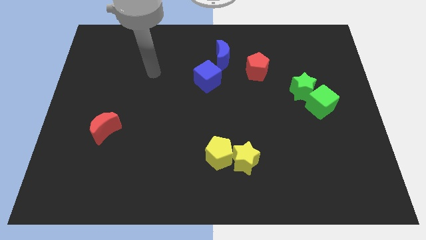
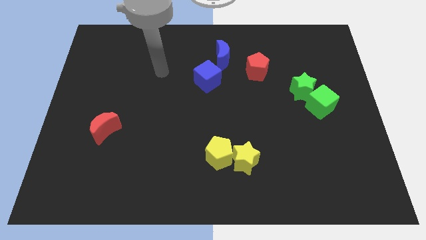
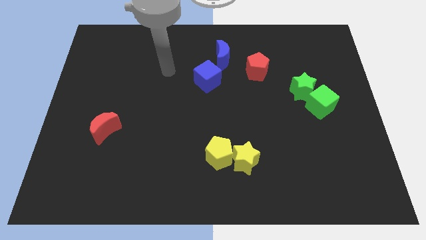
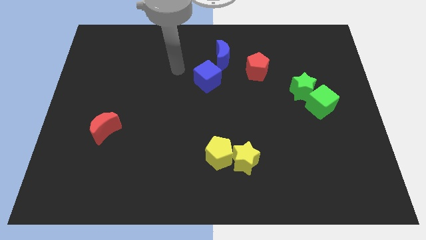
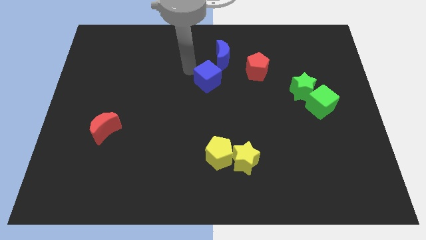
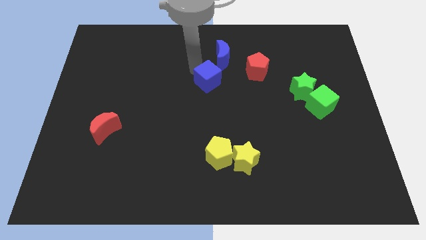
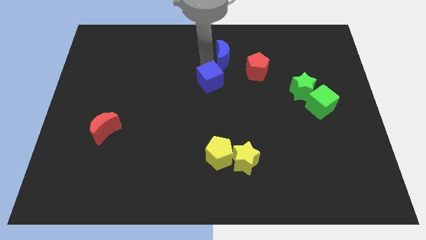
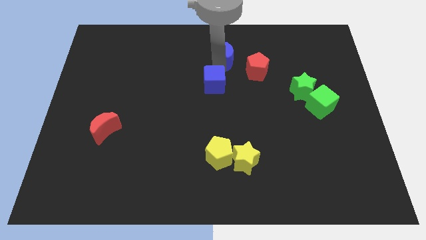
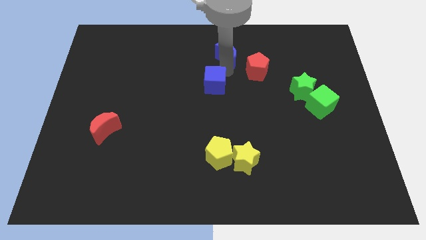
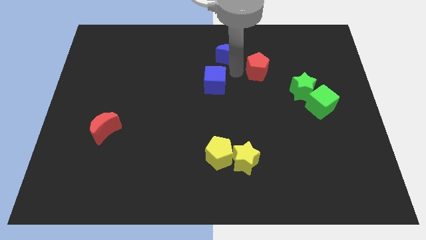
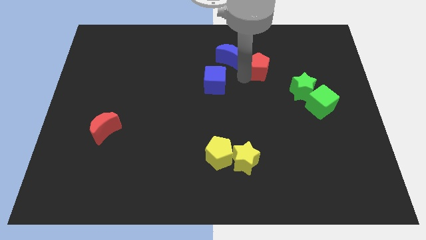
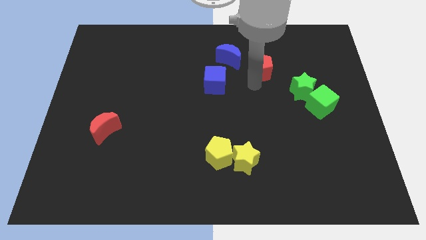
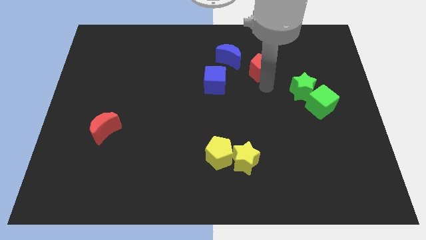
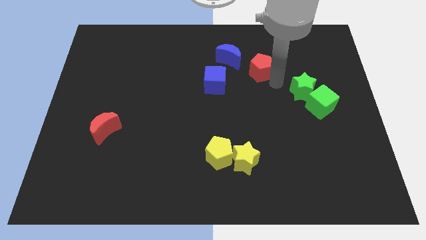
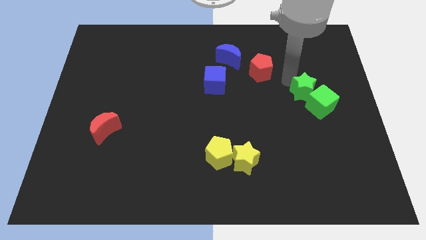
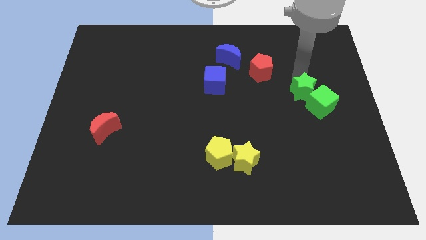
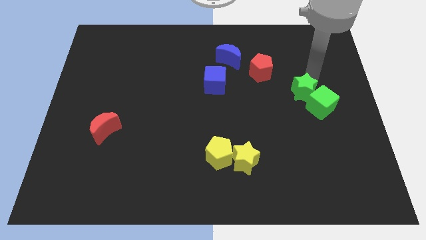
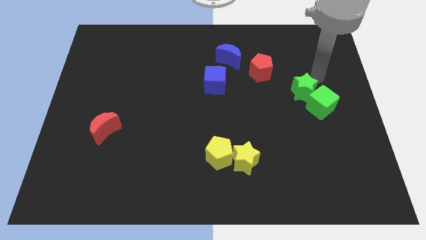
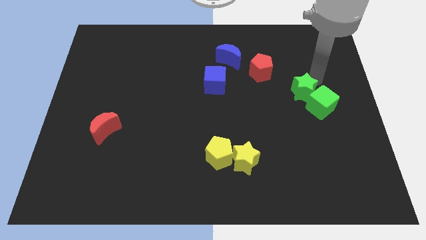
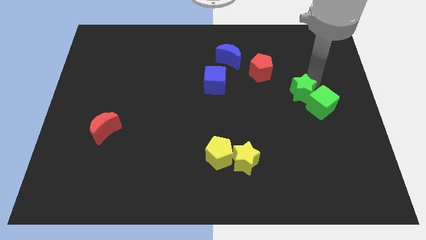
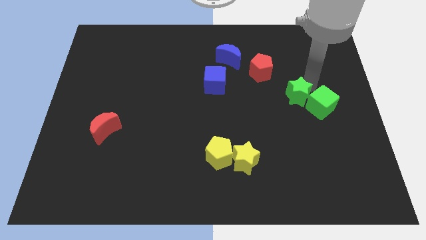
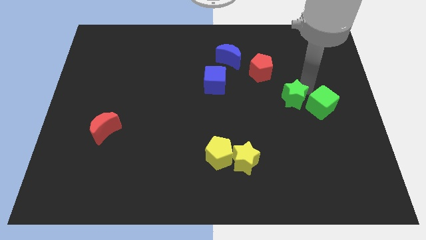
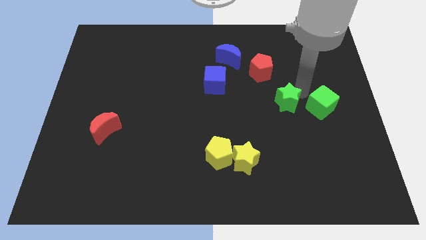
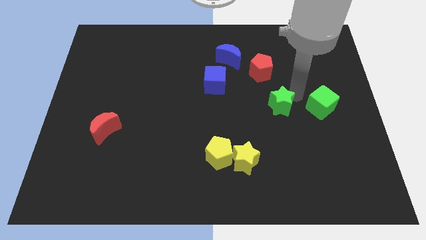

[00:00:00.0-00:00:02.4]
push the green star diagonally downwards and left a bit

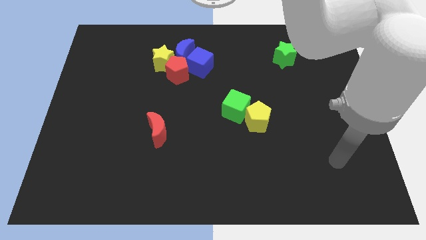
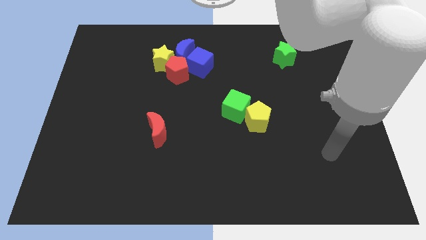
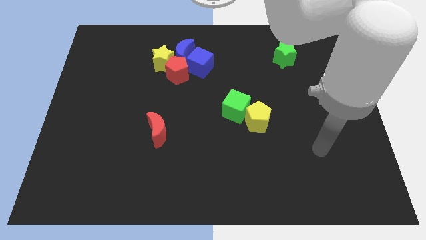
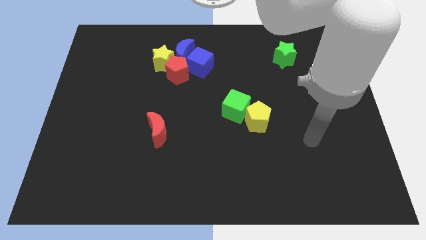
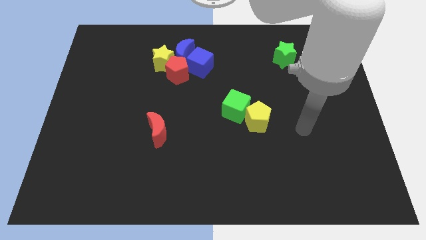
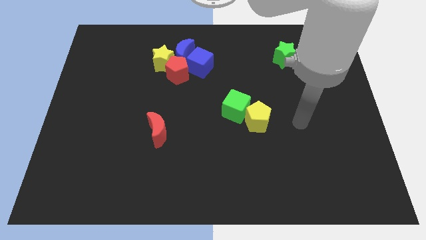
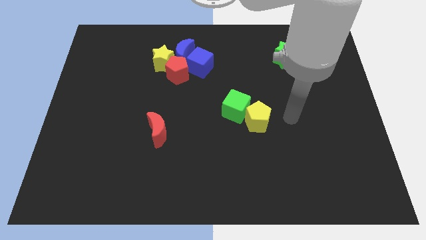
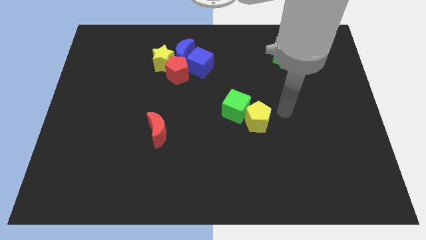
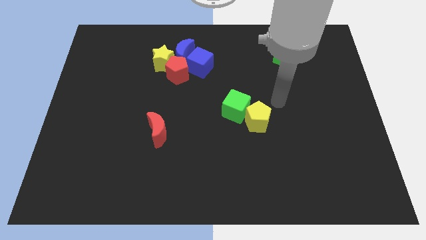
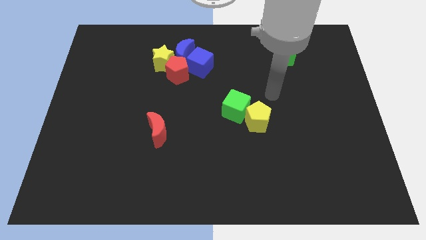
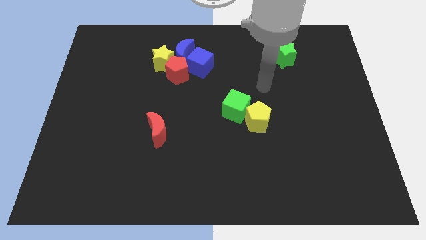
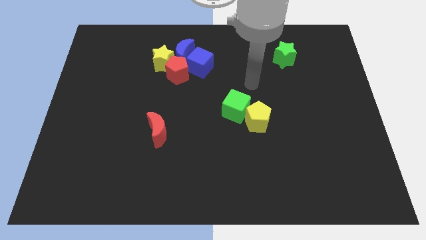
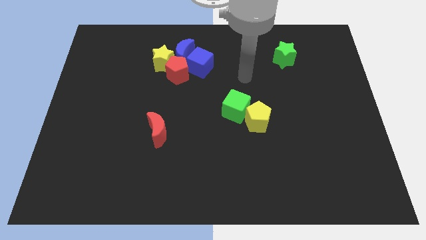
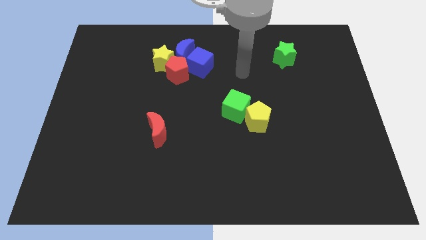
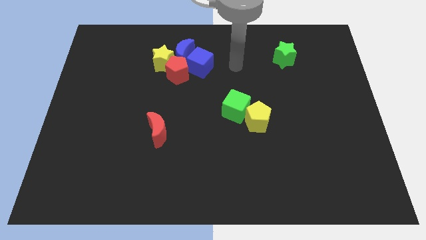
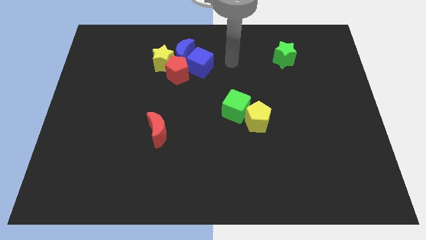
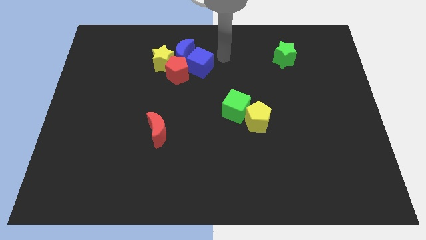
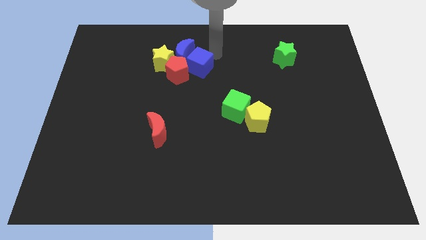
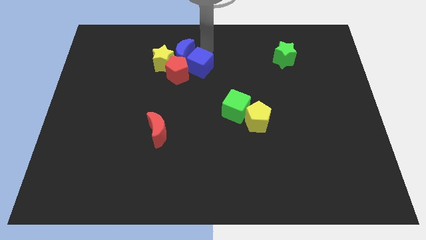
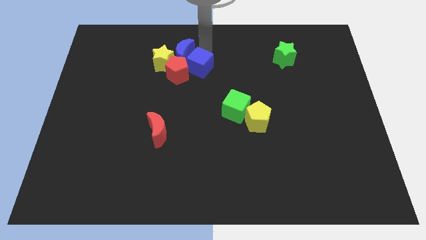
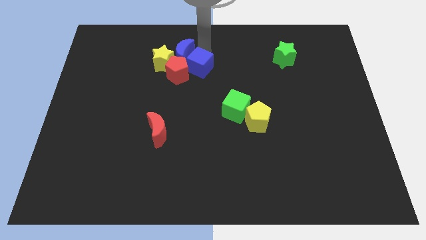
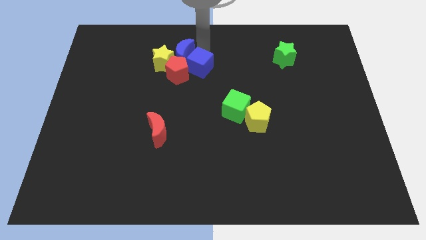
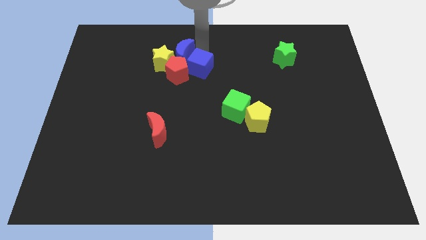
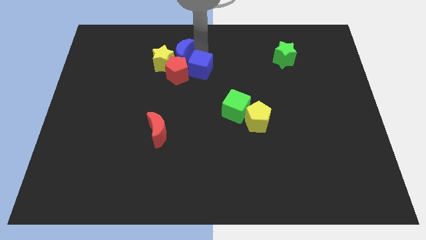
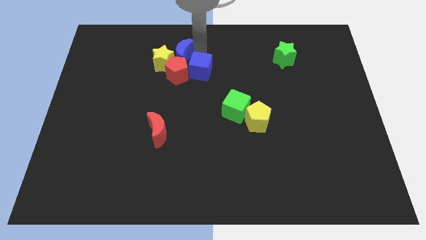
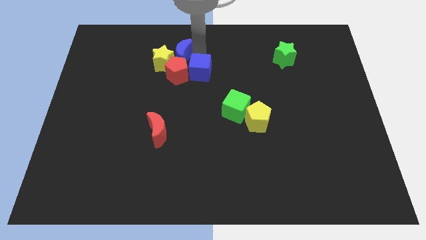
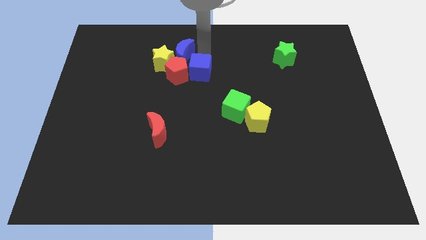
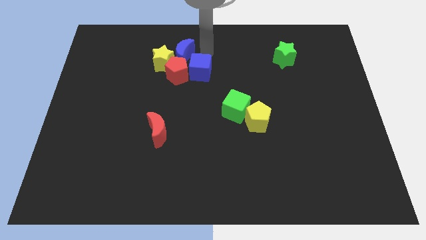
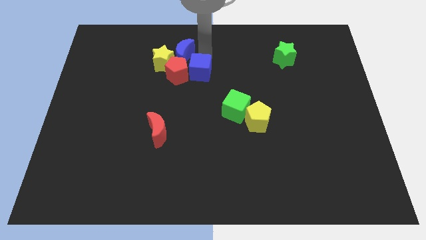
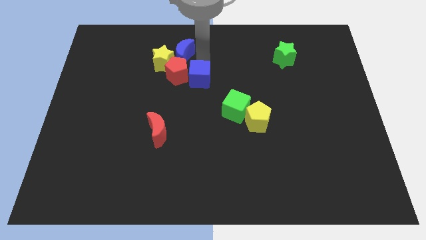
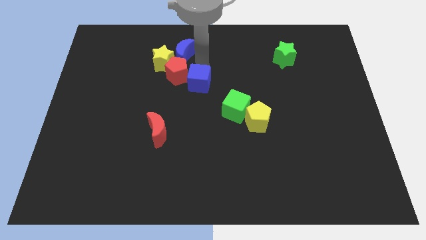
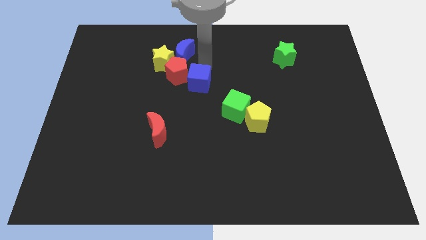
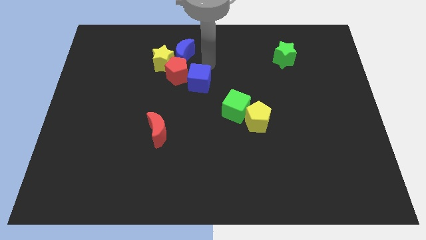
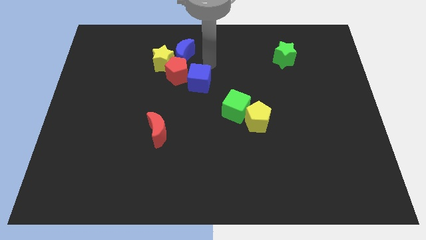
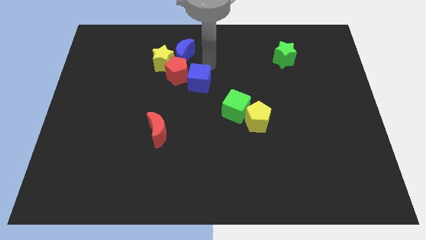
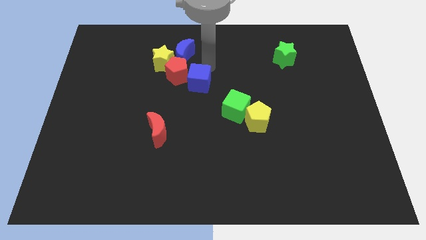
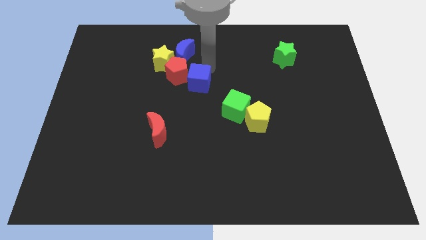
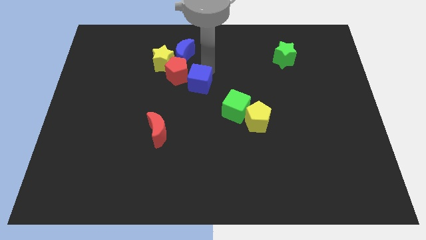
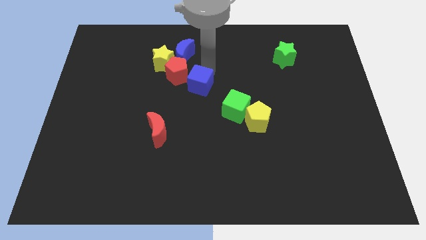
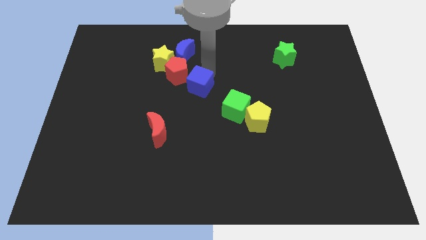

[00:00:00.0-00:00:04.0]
slightly slide the blue cube down

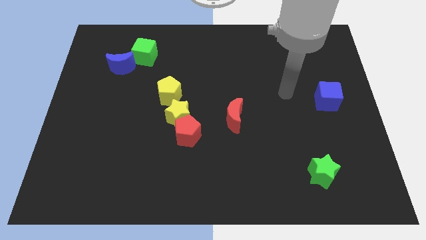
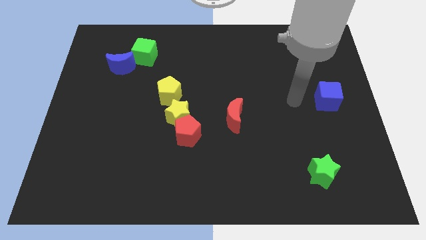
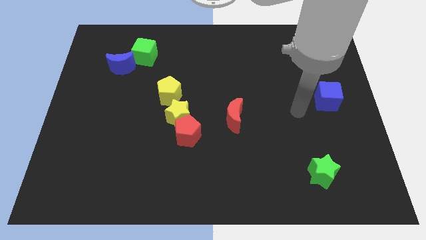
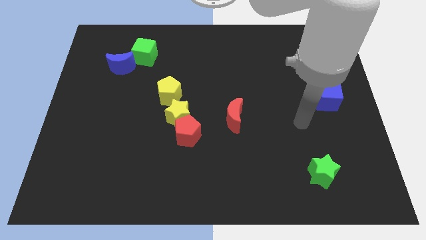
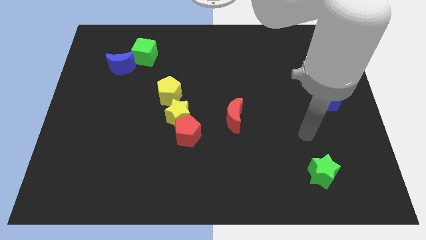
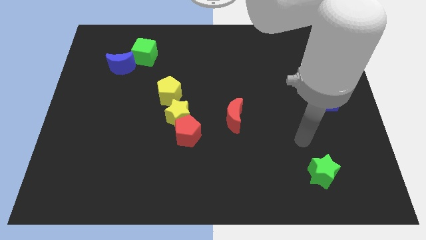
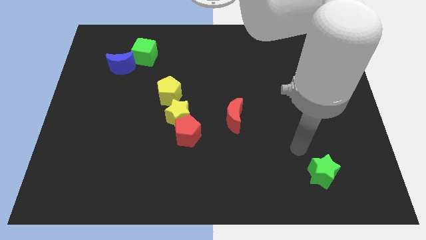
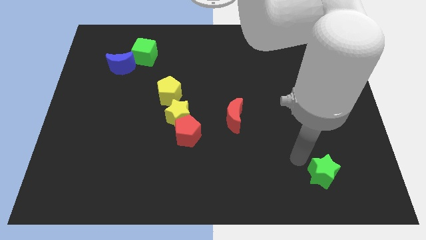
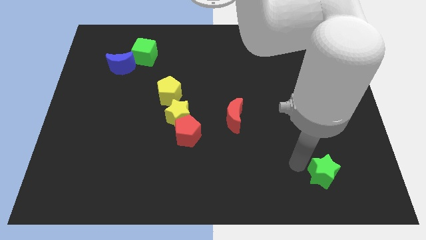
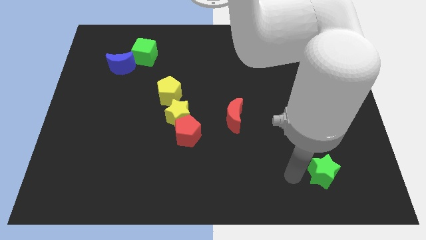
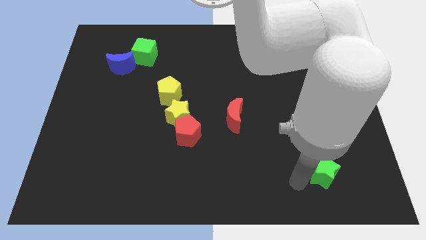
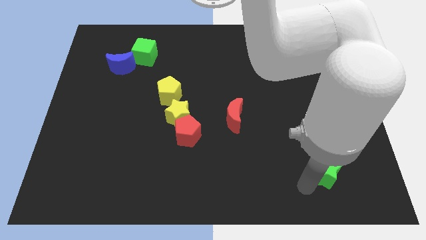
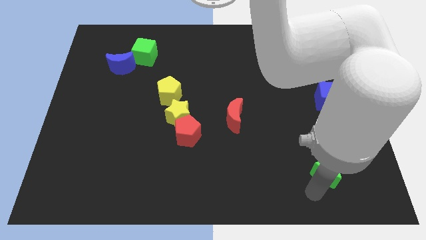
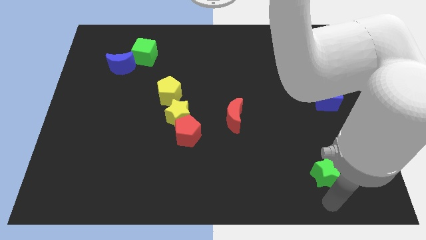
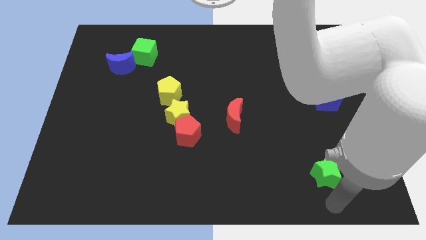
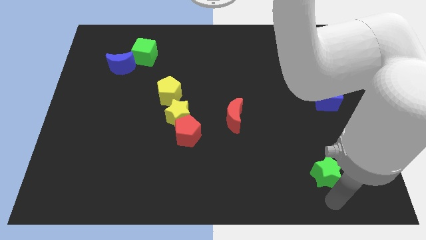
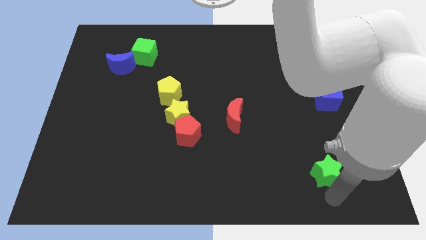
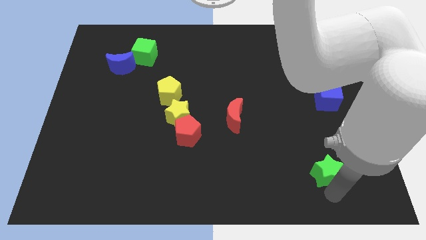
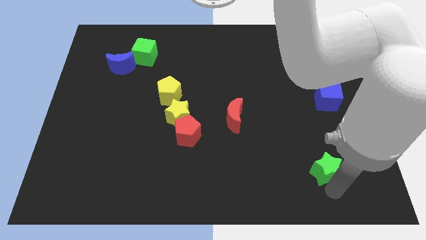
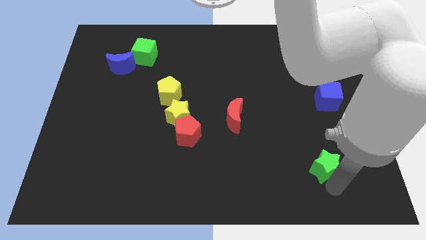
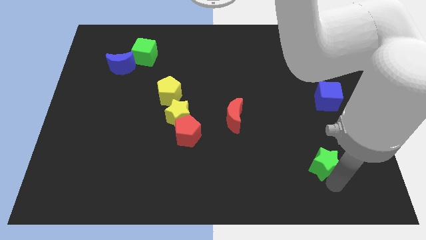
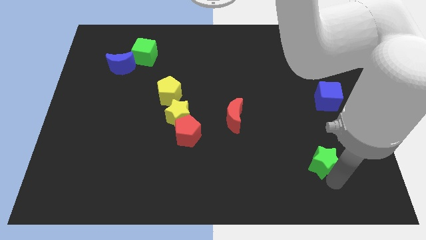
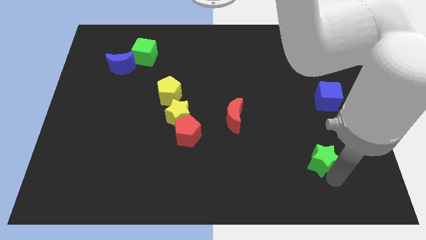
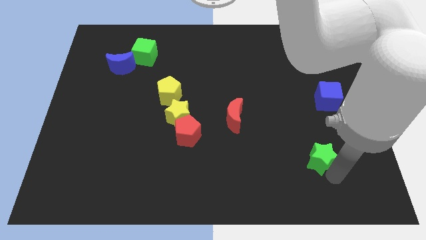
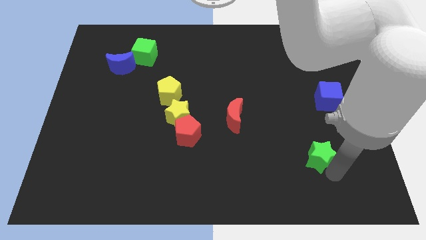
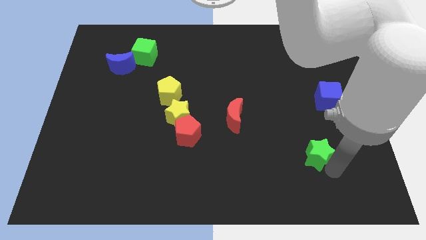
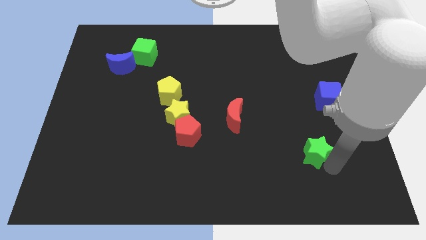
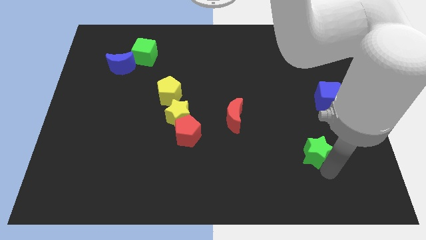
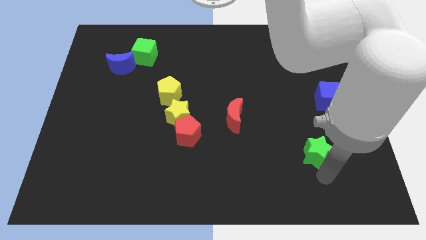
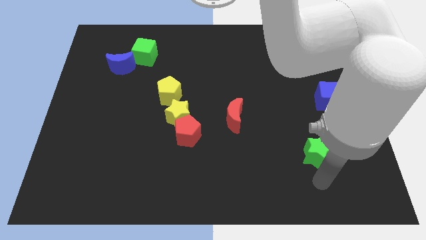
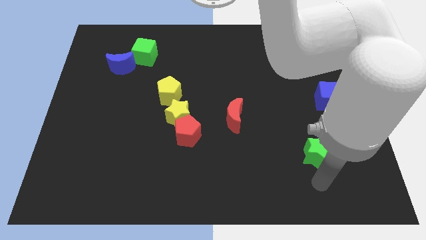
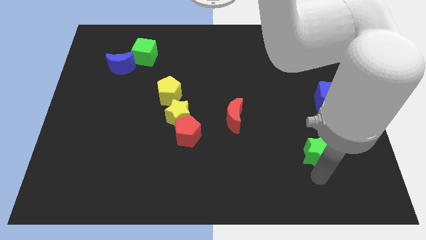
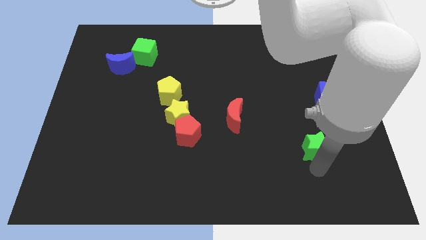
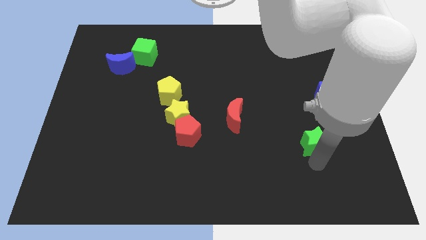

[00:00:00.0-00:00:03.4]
move the green star slightly upwards
